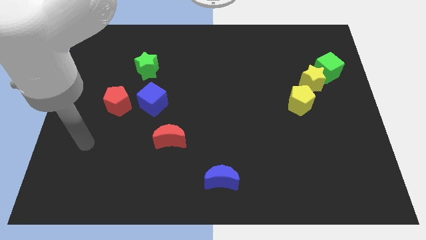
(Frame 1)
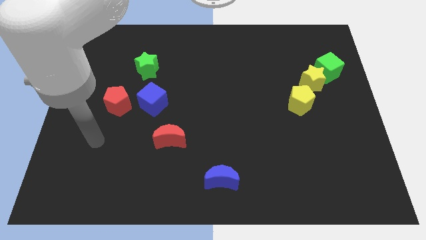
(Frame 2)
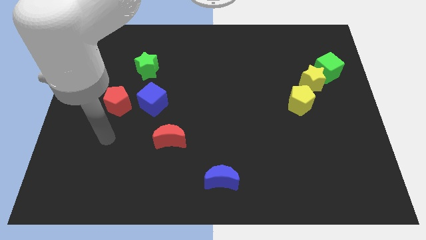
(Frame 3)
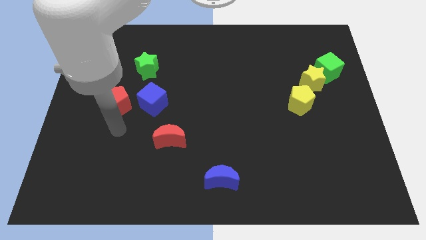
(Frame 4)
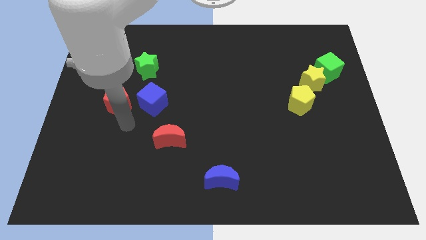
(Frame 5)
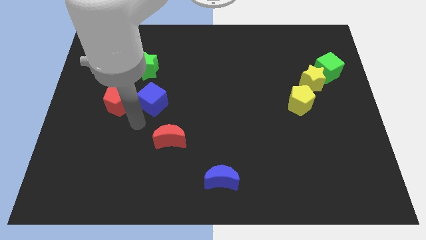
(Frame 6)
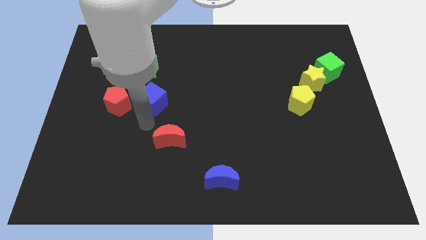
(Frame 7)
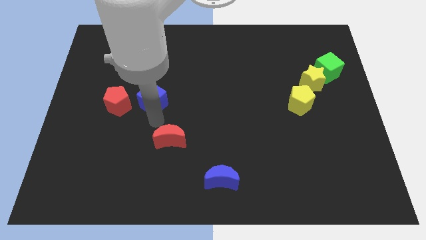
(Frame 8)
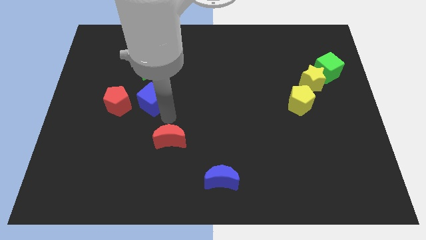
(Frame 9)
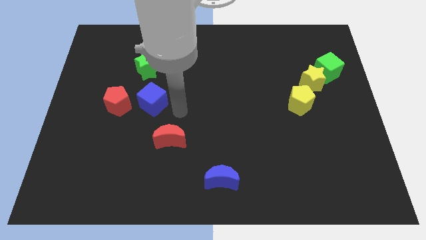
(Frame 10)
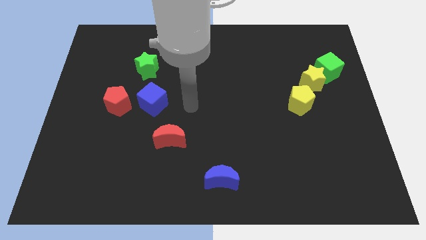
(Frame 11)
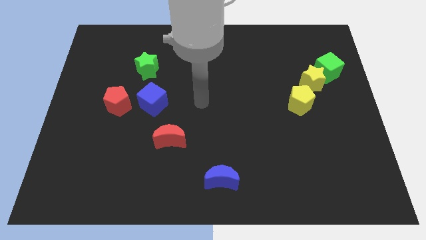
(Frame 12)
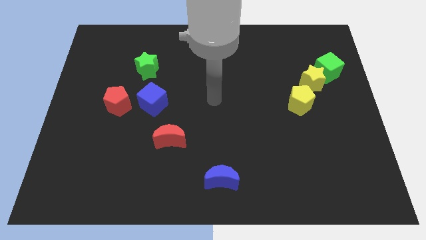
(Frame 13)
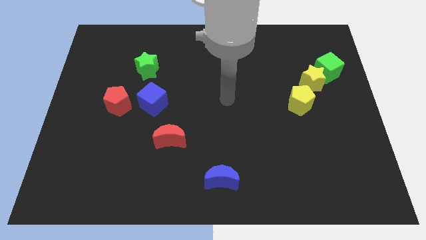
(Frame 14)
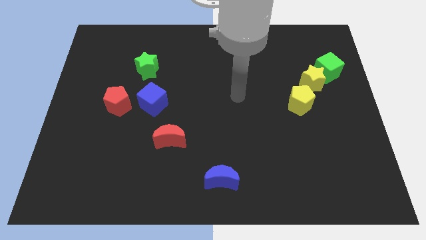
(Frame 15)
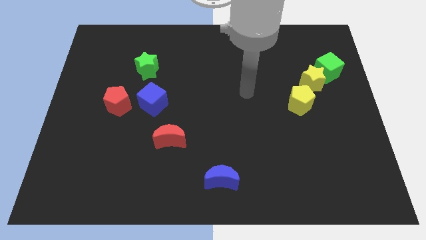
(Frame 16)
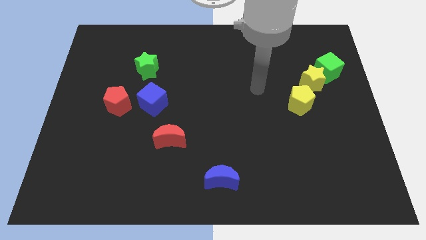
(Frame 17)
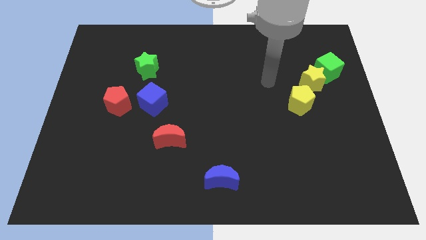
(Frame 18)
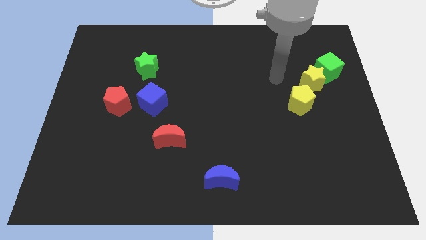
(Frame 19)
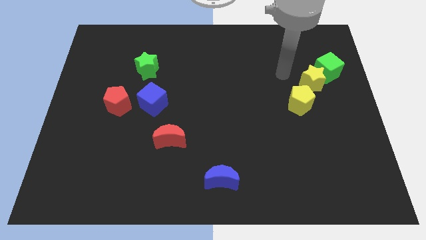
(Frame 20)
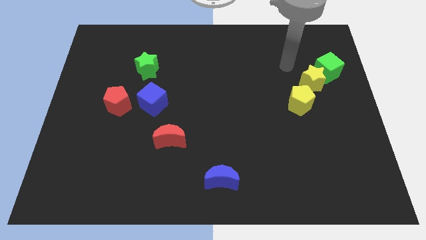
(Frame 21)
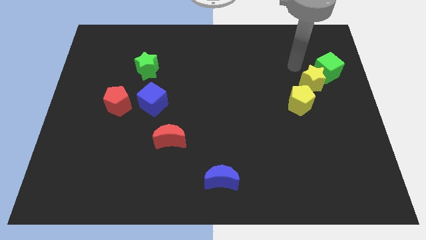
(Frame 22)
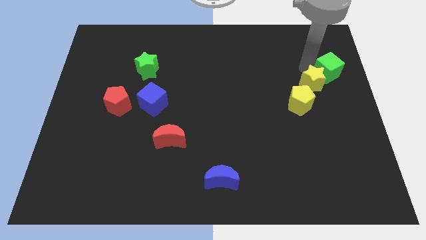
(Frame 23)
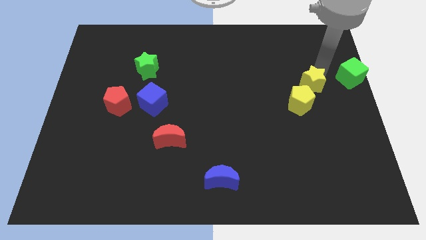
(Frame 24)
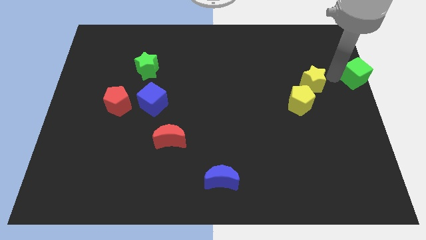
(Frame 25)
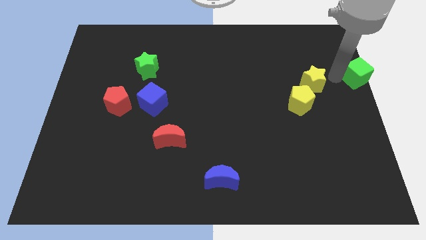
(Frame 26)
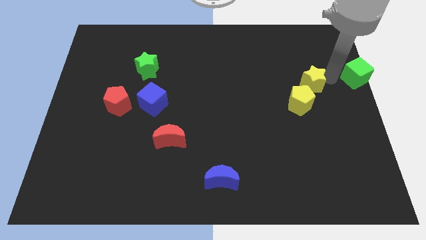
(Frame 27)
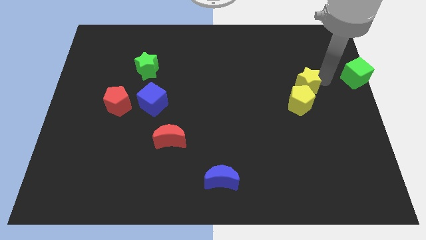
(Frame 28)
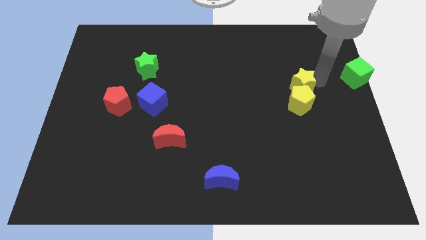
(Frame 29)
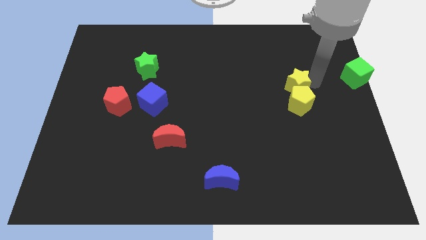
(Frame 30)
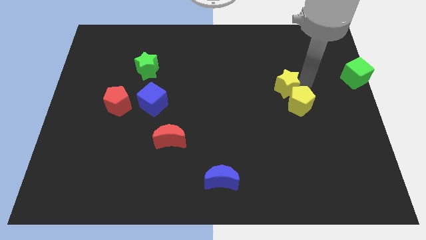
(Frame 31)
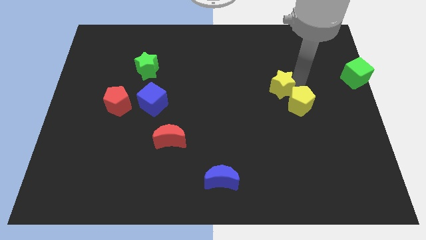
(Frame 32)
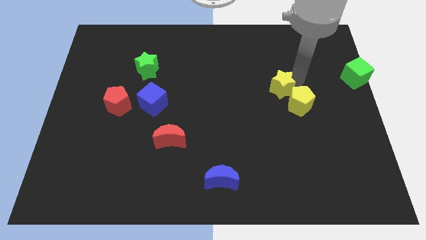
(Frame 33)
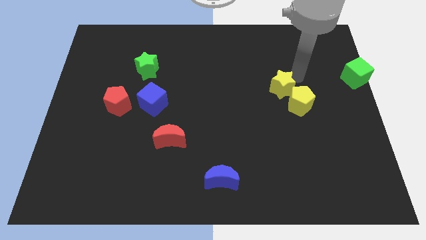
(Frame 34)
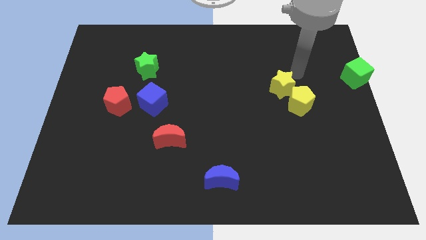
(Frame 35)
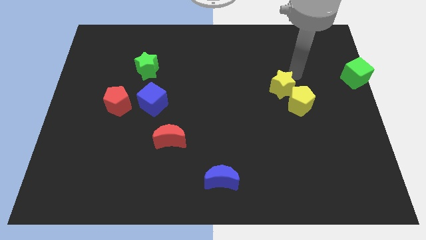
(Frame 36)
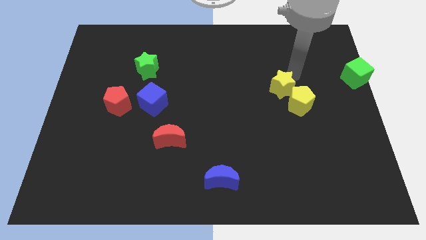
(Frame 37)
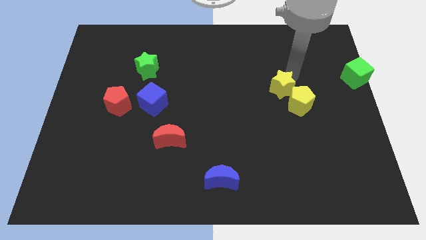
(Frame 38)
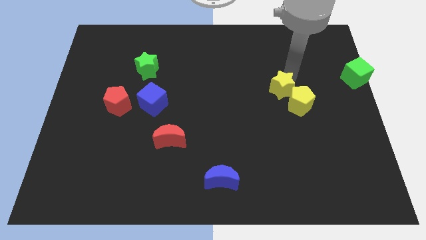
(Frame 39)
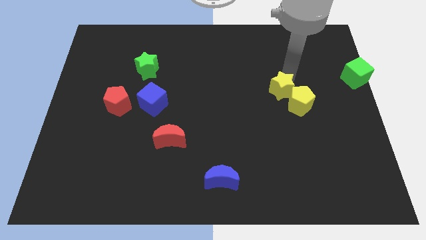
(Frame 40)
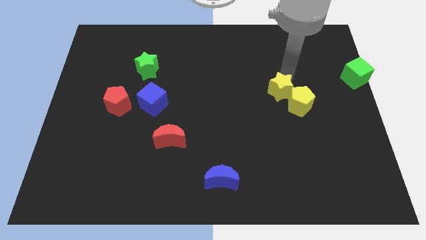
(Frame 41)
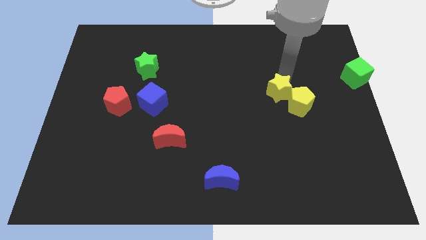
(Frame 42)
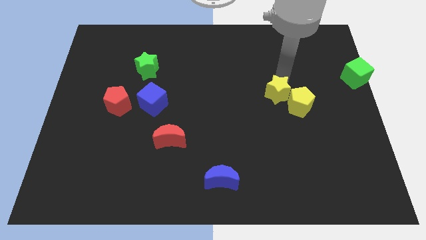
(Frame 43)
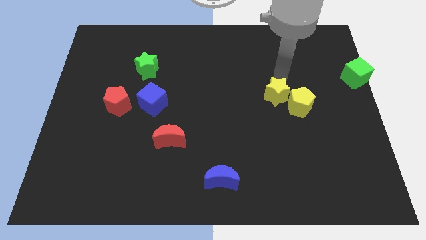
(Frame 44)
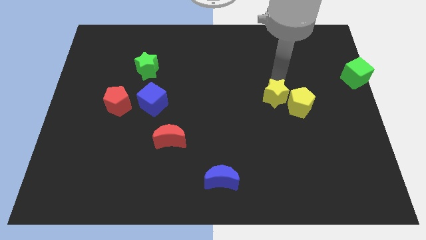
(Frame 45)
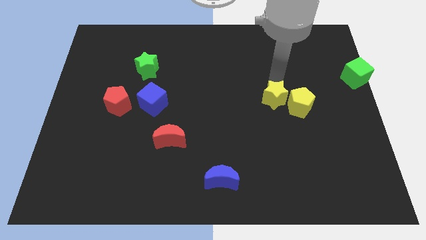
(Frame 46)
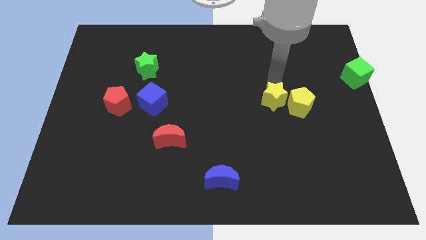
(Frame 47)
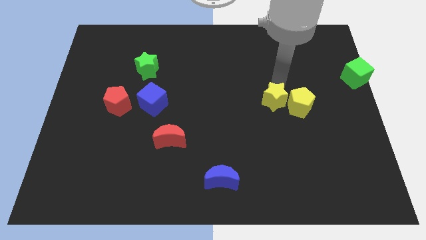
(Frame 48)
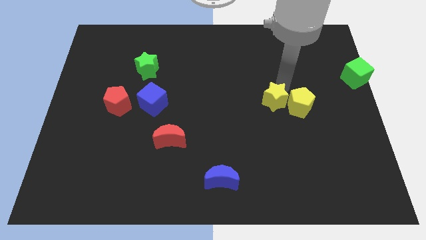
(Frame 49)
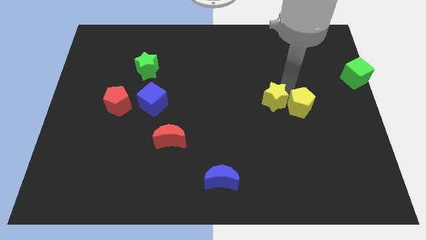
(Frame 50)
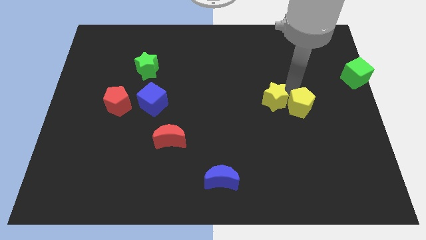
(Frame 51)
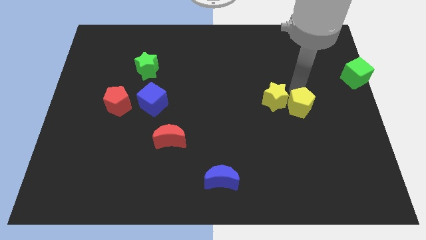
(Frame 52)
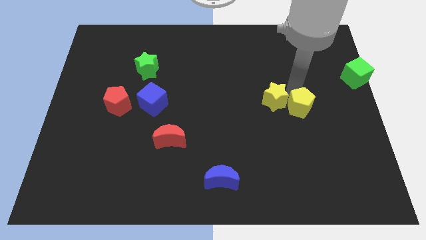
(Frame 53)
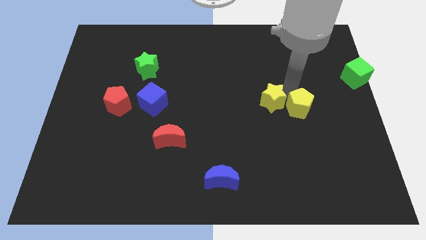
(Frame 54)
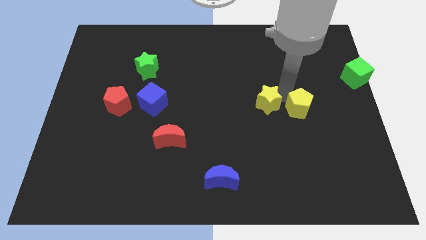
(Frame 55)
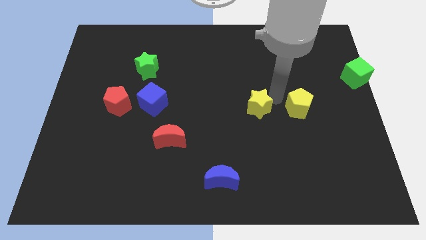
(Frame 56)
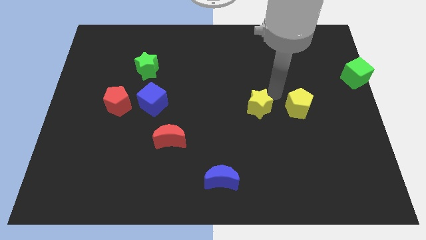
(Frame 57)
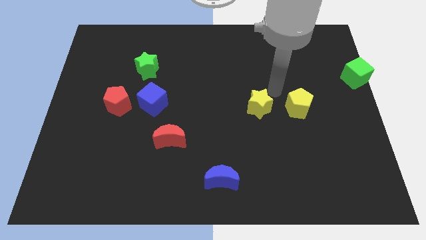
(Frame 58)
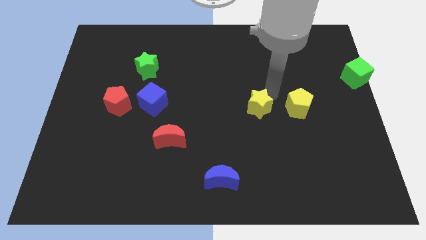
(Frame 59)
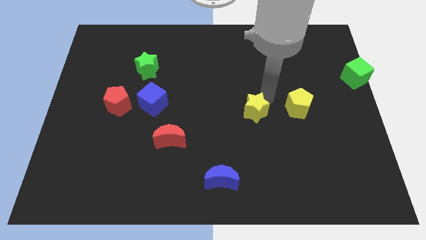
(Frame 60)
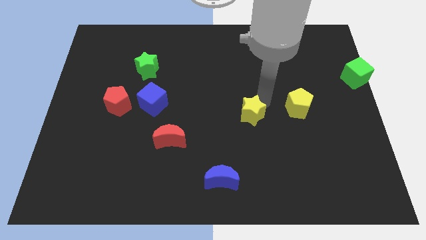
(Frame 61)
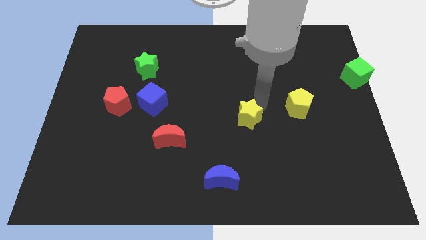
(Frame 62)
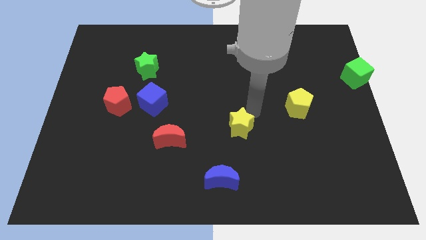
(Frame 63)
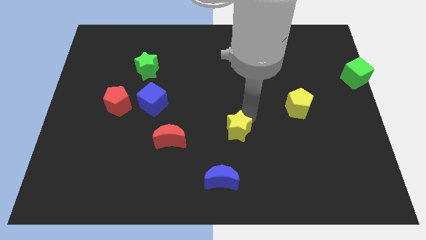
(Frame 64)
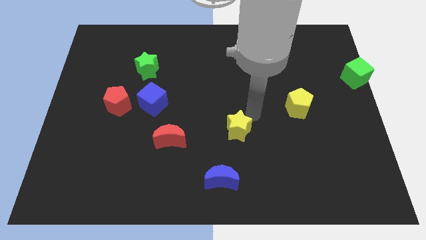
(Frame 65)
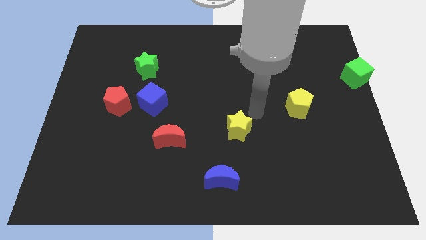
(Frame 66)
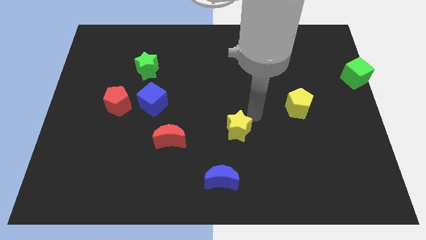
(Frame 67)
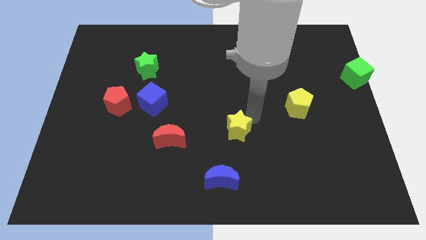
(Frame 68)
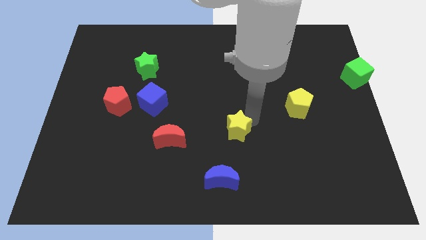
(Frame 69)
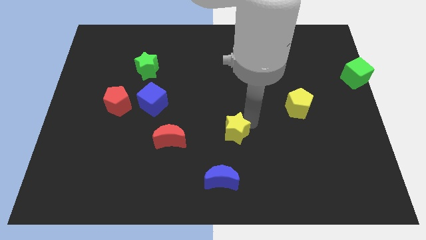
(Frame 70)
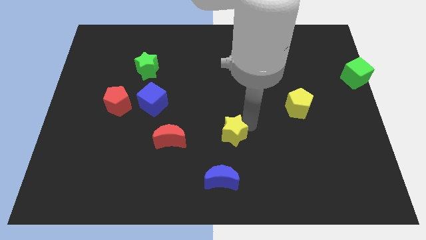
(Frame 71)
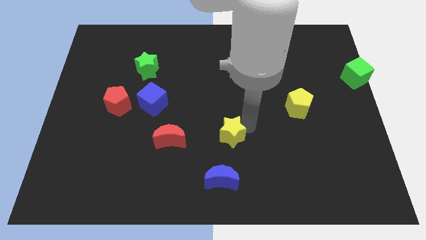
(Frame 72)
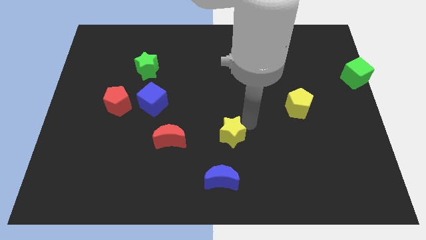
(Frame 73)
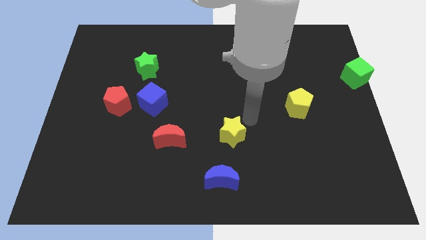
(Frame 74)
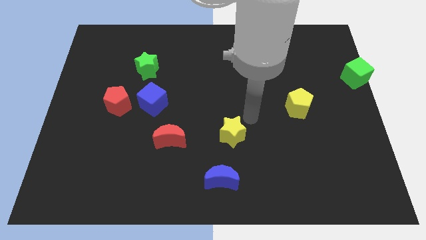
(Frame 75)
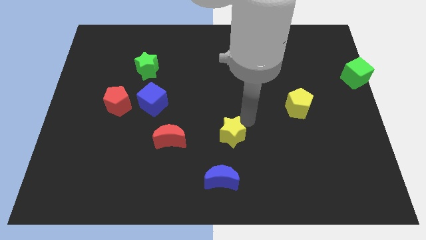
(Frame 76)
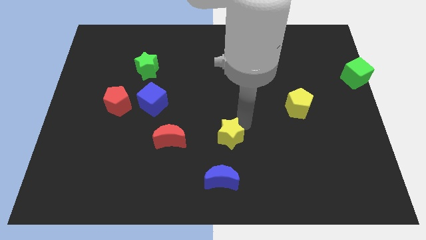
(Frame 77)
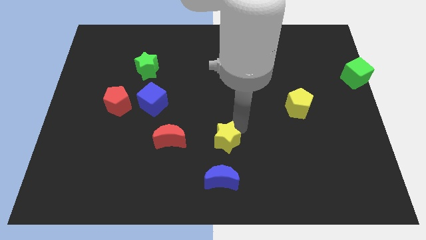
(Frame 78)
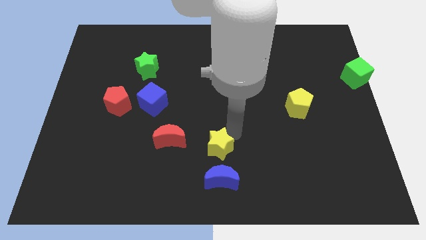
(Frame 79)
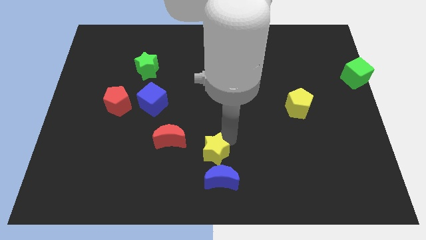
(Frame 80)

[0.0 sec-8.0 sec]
push the yellow star diagonally down and to the right of the red moon

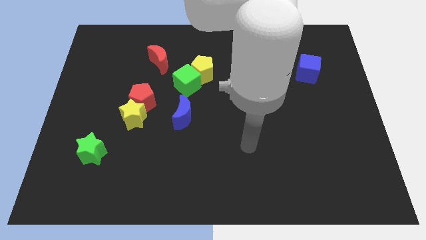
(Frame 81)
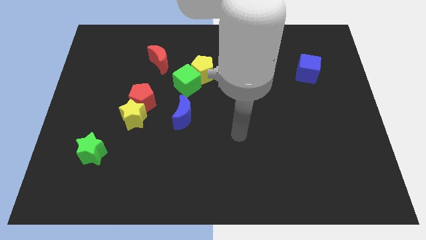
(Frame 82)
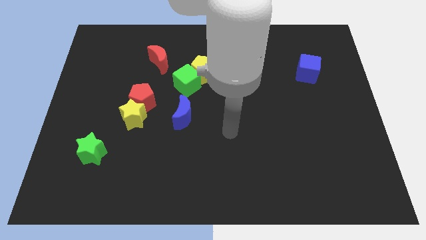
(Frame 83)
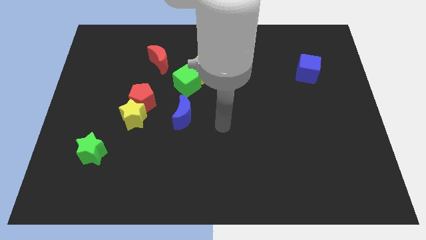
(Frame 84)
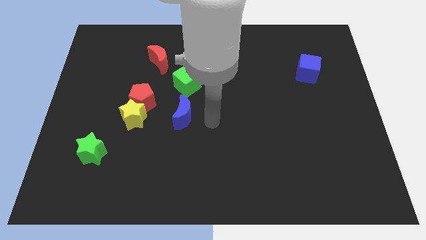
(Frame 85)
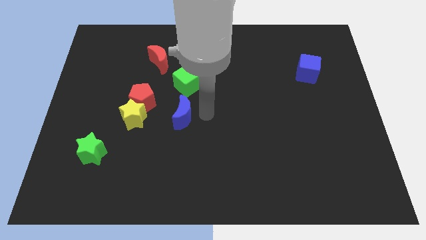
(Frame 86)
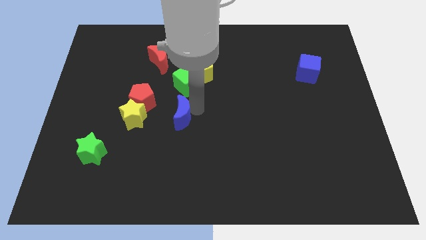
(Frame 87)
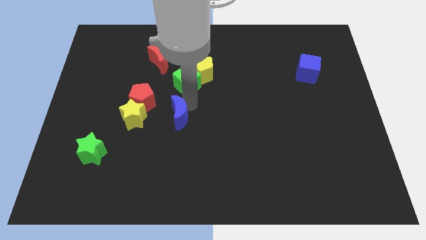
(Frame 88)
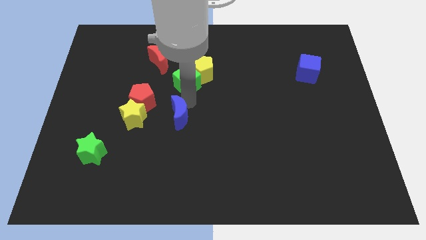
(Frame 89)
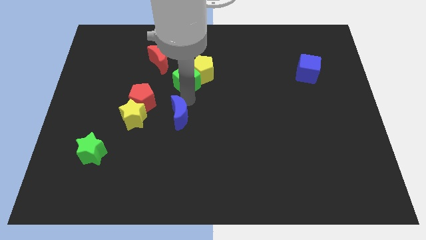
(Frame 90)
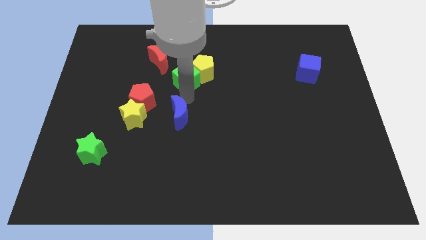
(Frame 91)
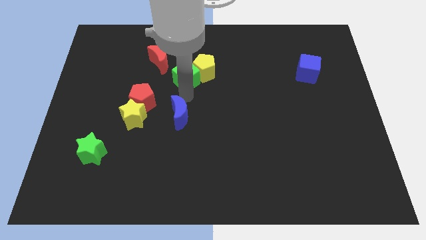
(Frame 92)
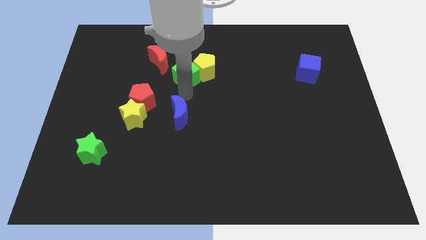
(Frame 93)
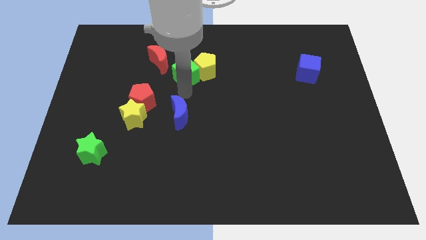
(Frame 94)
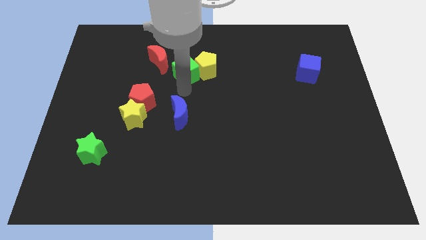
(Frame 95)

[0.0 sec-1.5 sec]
put the green cube right of the red moon
